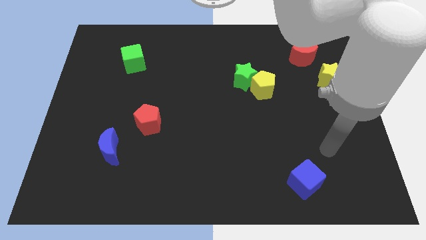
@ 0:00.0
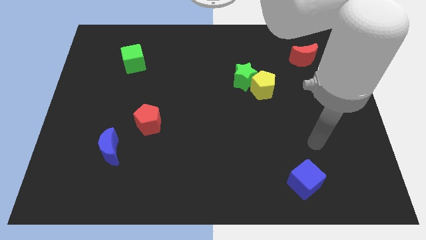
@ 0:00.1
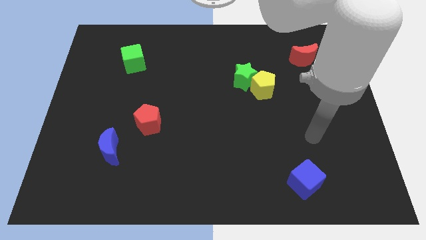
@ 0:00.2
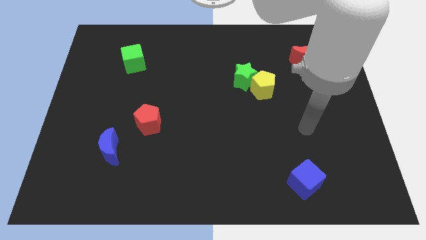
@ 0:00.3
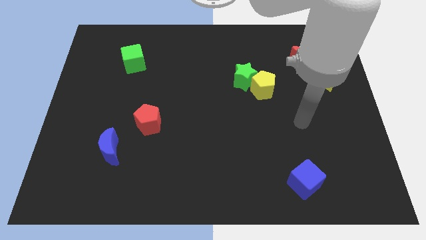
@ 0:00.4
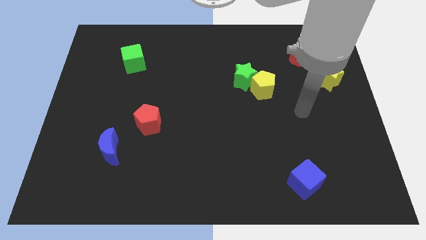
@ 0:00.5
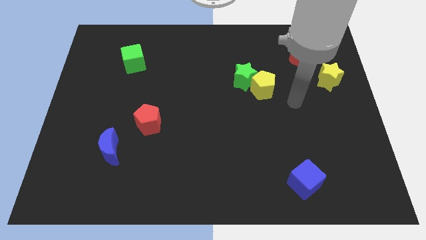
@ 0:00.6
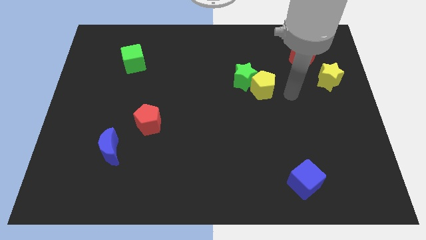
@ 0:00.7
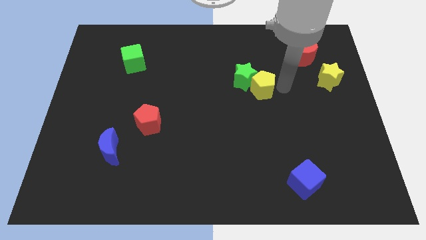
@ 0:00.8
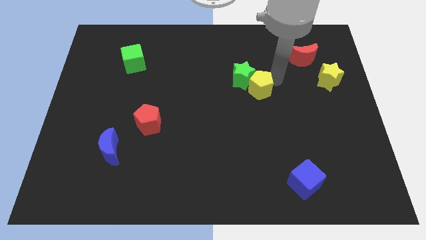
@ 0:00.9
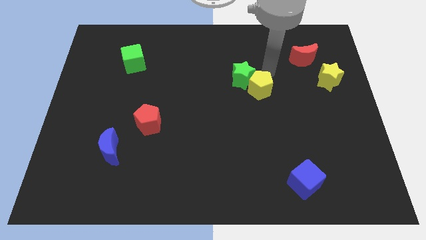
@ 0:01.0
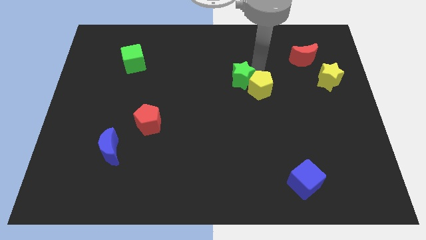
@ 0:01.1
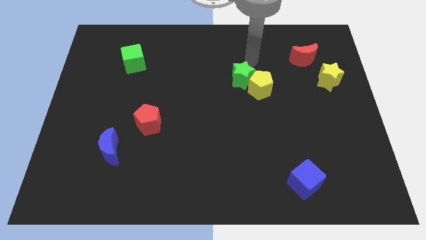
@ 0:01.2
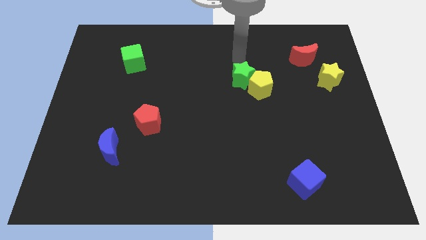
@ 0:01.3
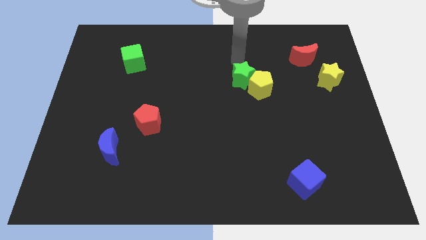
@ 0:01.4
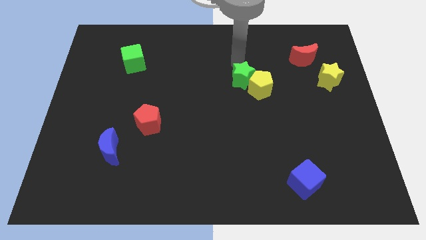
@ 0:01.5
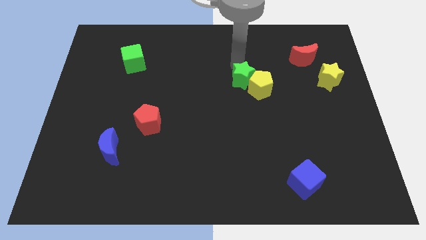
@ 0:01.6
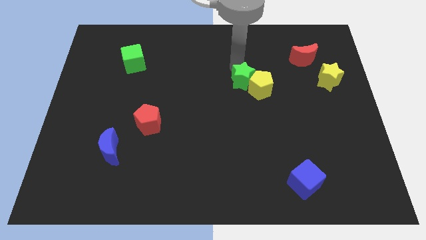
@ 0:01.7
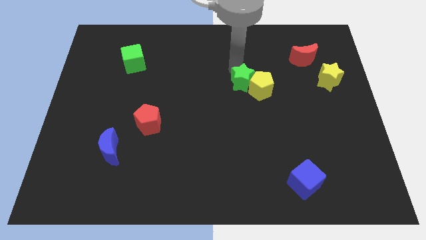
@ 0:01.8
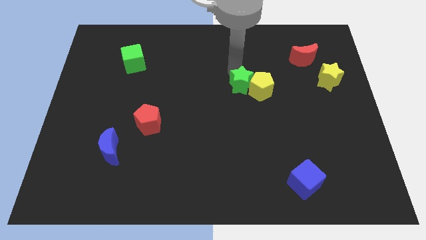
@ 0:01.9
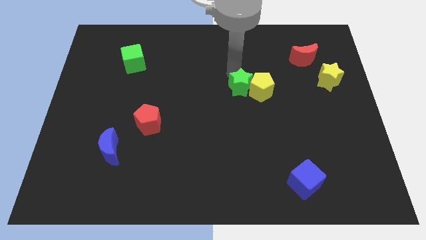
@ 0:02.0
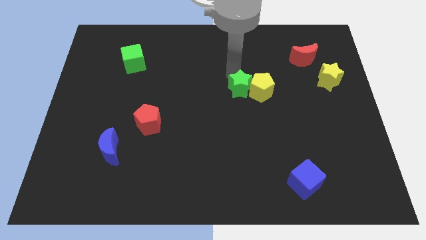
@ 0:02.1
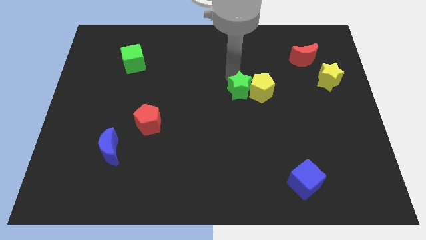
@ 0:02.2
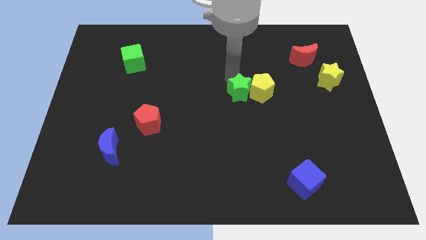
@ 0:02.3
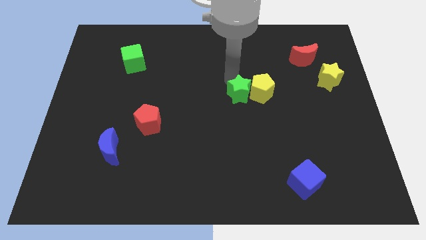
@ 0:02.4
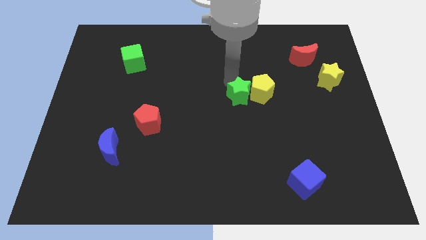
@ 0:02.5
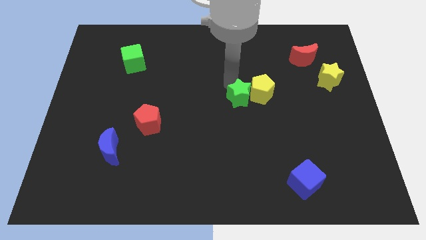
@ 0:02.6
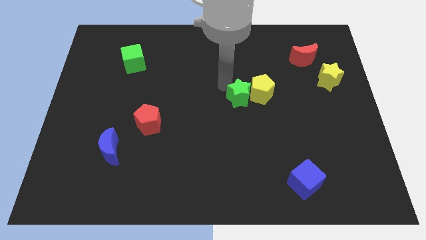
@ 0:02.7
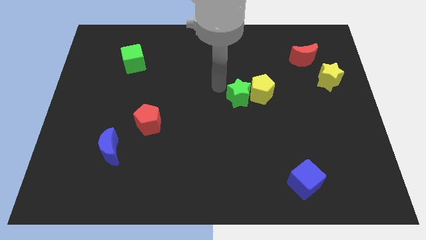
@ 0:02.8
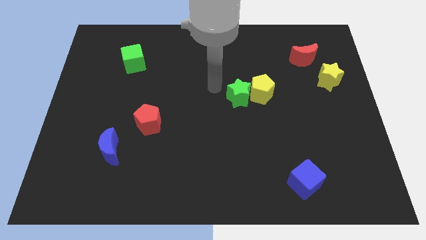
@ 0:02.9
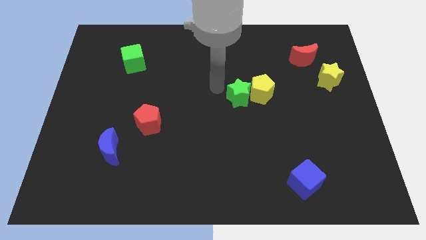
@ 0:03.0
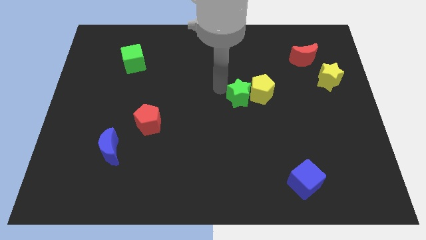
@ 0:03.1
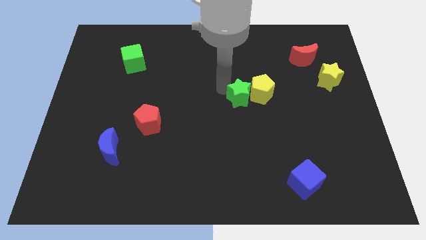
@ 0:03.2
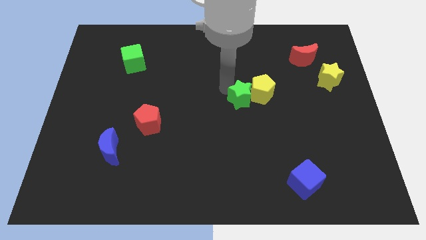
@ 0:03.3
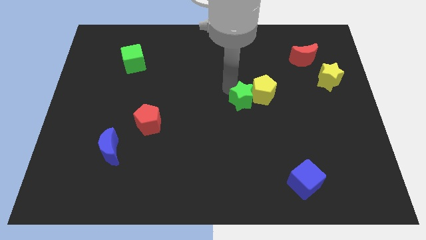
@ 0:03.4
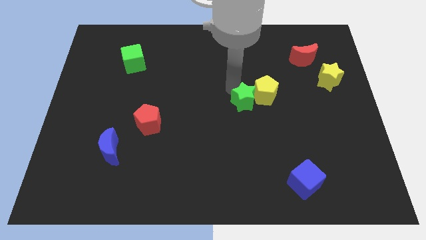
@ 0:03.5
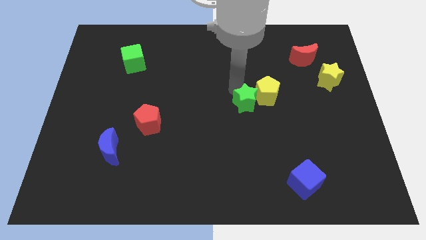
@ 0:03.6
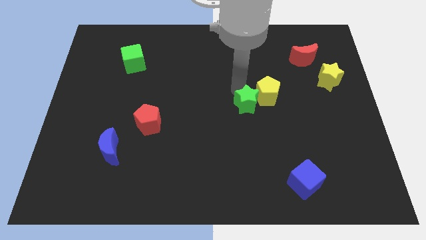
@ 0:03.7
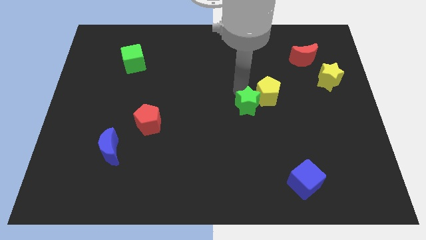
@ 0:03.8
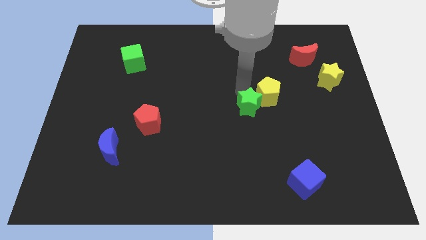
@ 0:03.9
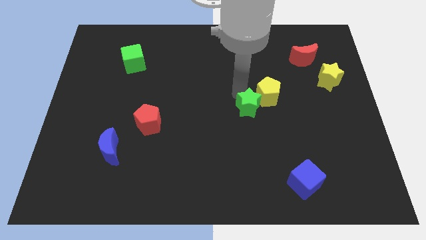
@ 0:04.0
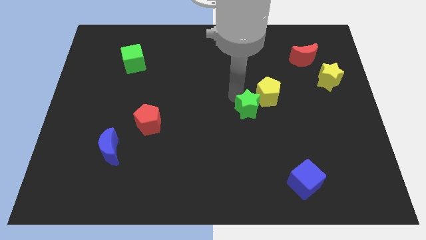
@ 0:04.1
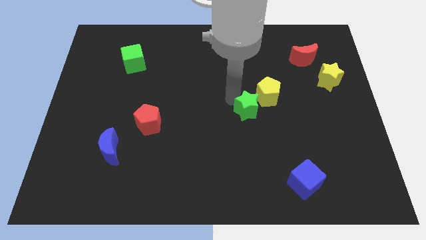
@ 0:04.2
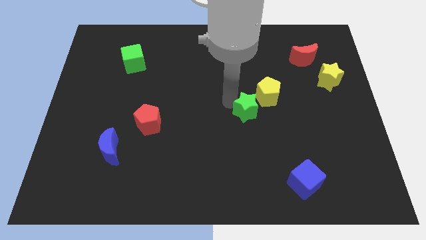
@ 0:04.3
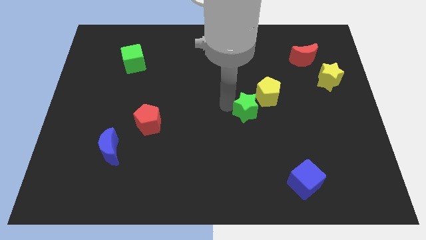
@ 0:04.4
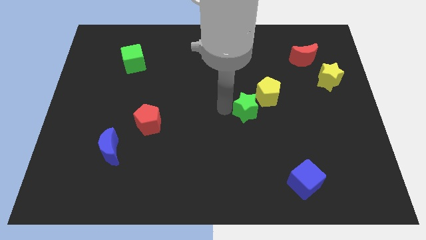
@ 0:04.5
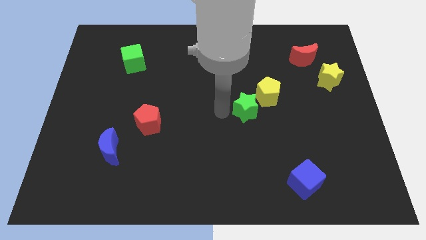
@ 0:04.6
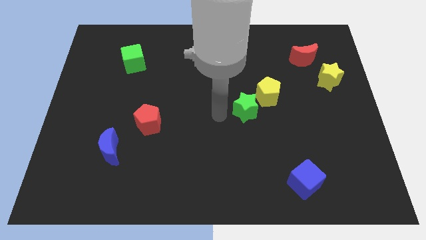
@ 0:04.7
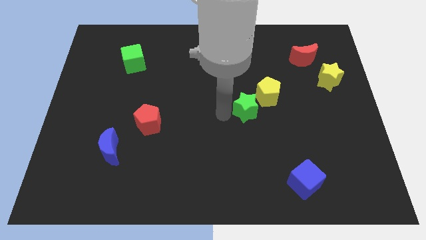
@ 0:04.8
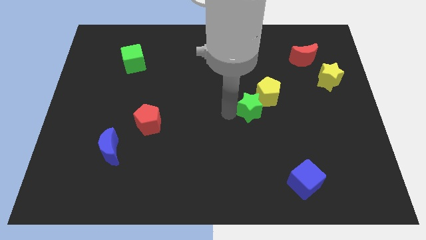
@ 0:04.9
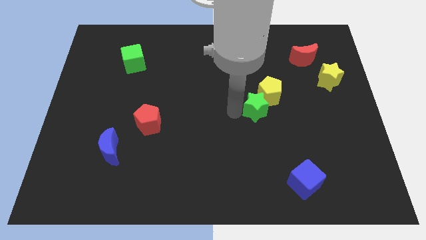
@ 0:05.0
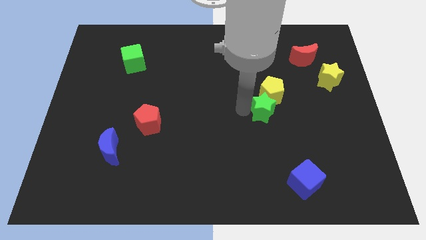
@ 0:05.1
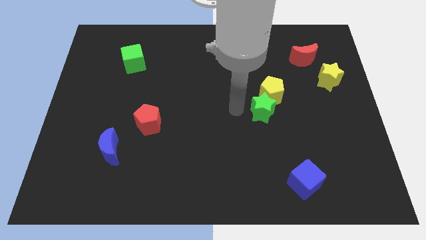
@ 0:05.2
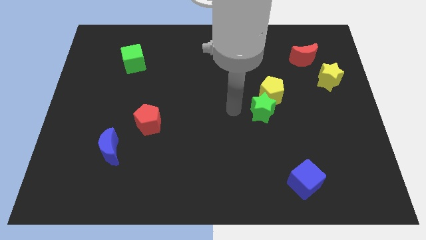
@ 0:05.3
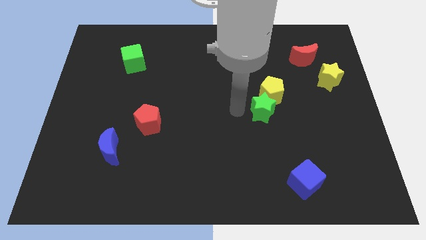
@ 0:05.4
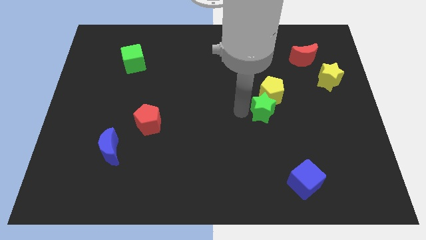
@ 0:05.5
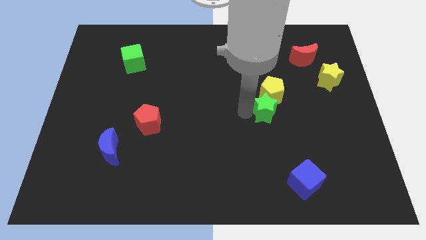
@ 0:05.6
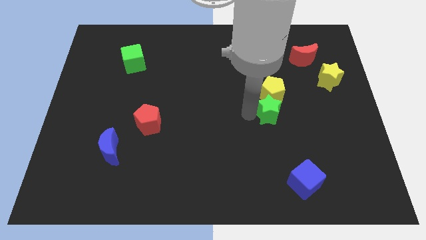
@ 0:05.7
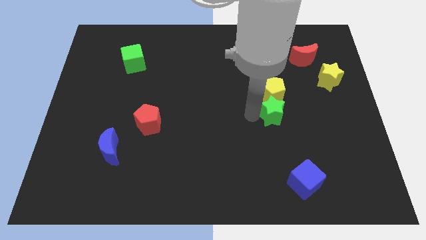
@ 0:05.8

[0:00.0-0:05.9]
slide the green star diagonally down and to the right of the yellow pentagon

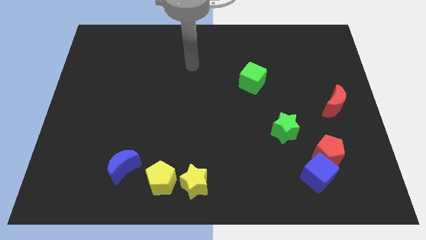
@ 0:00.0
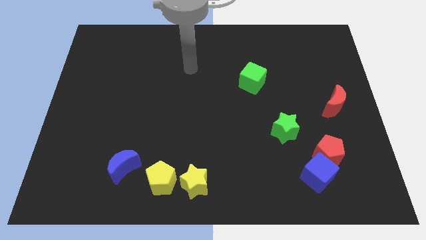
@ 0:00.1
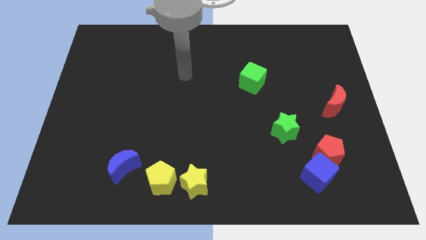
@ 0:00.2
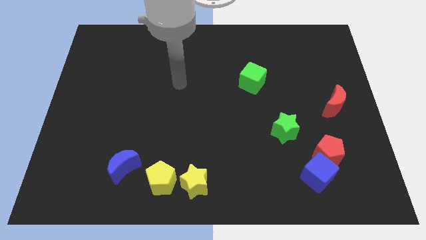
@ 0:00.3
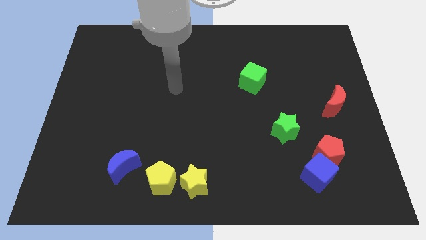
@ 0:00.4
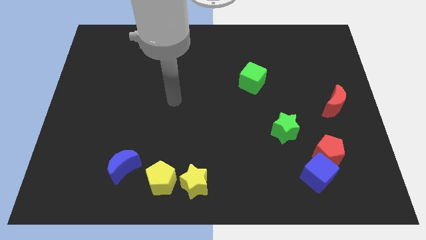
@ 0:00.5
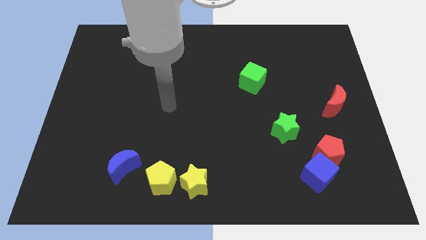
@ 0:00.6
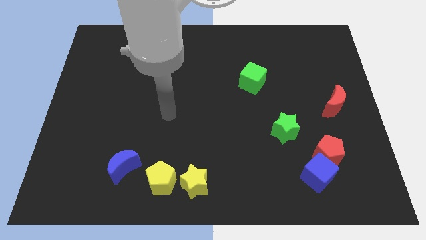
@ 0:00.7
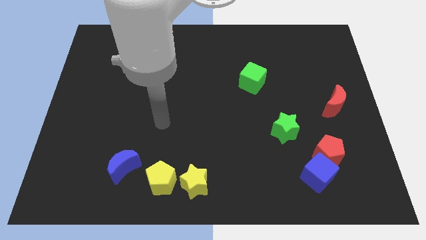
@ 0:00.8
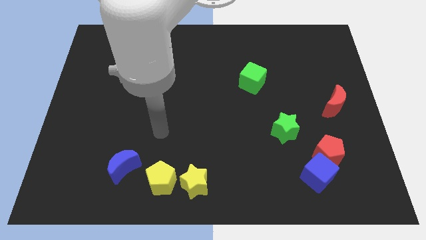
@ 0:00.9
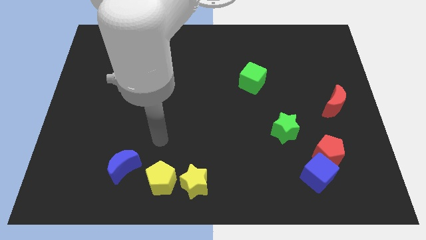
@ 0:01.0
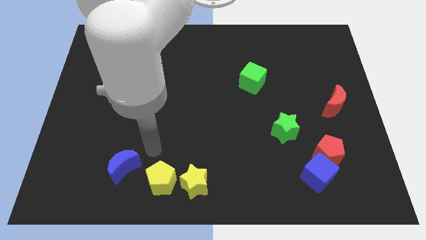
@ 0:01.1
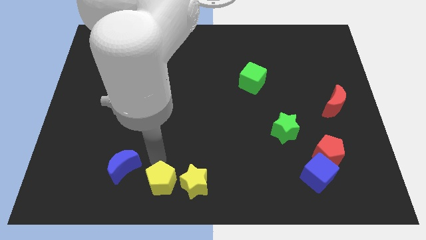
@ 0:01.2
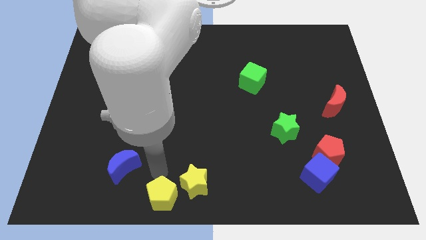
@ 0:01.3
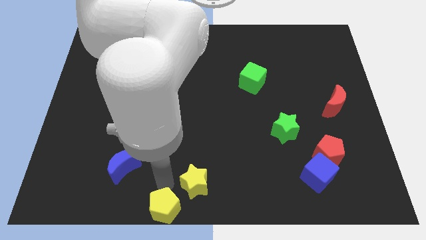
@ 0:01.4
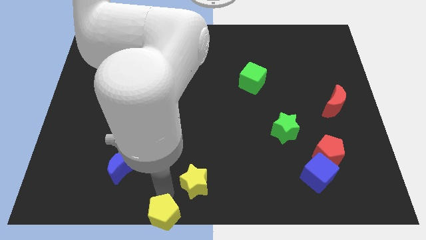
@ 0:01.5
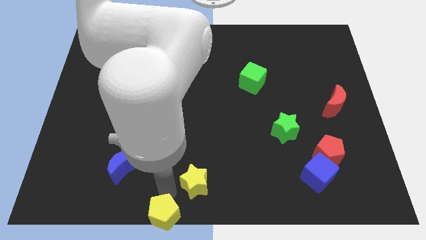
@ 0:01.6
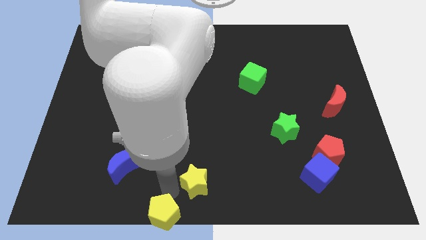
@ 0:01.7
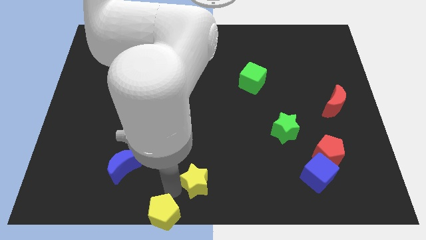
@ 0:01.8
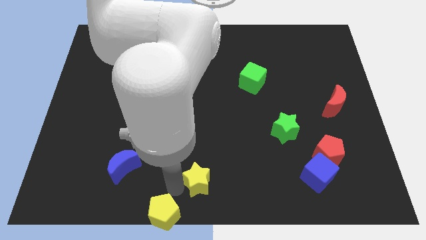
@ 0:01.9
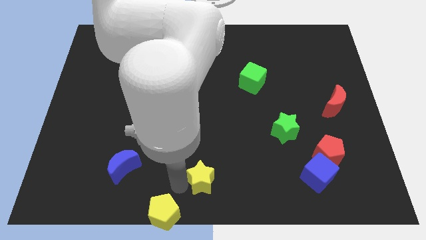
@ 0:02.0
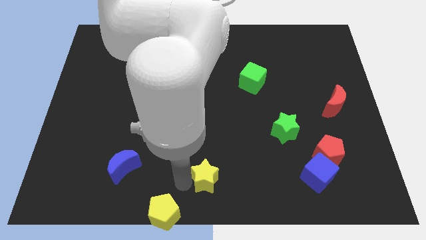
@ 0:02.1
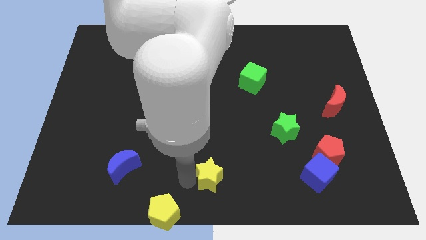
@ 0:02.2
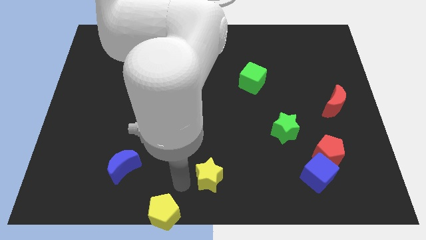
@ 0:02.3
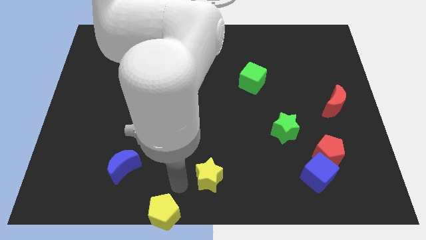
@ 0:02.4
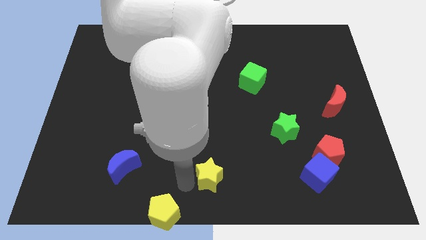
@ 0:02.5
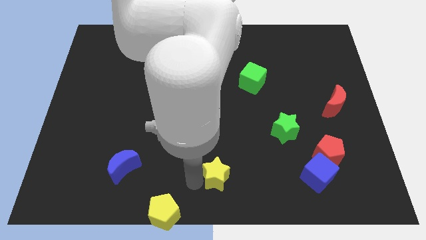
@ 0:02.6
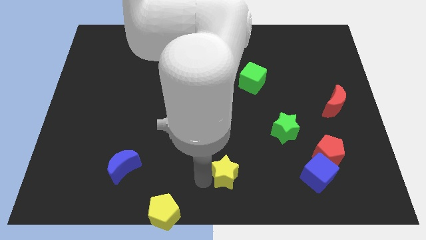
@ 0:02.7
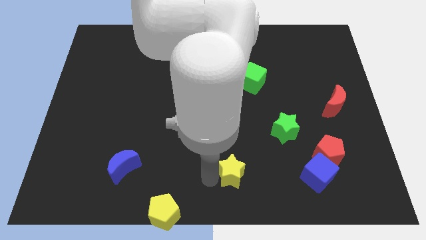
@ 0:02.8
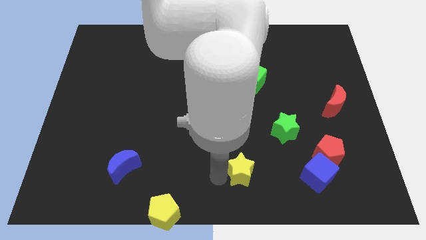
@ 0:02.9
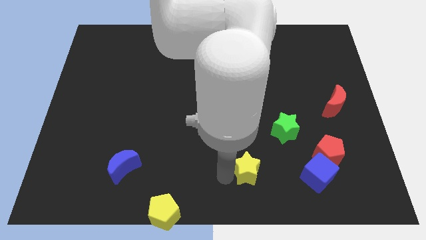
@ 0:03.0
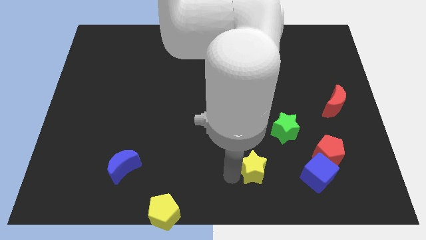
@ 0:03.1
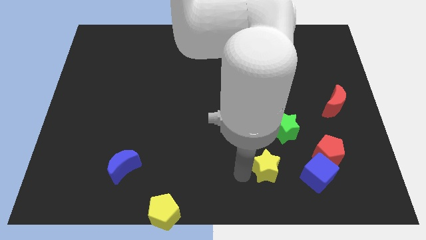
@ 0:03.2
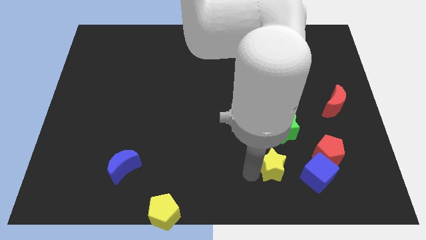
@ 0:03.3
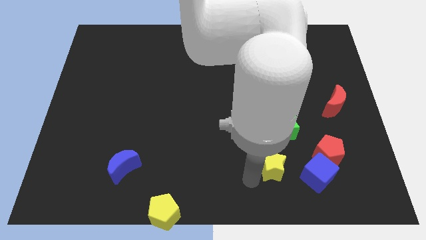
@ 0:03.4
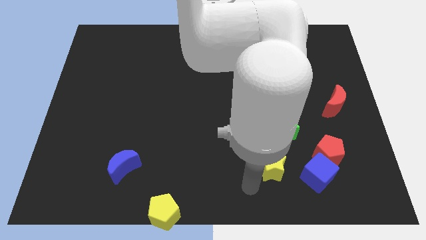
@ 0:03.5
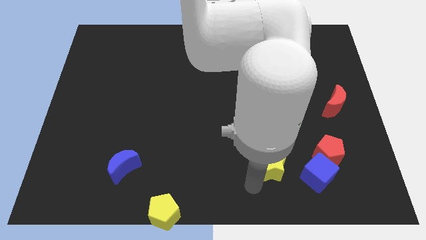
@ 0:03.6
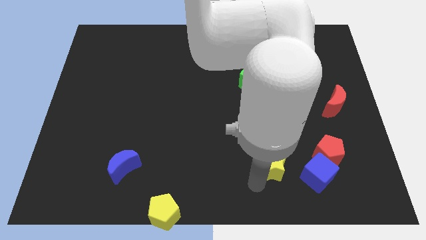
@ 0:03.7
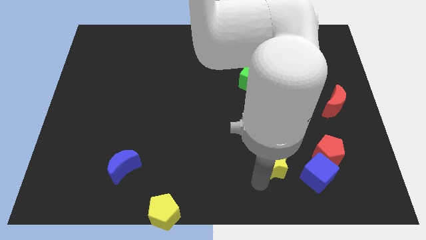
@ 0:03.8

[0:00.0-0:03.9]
push the yellow star to the top left of the blue cube
